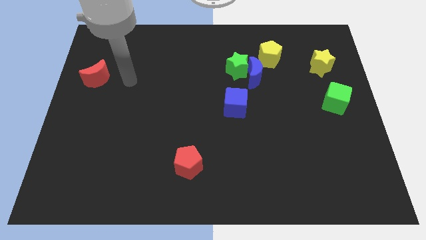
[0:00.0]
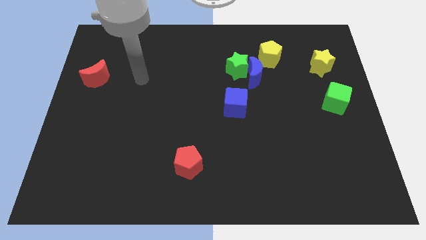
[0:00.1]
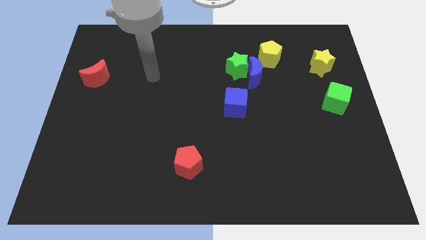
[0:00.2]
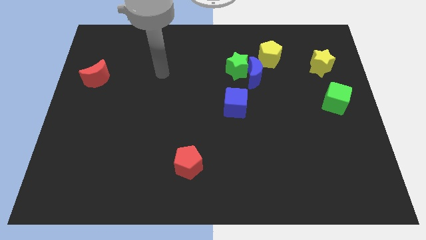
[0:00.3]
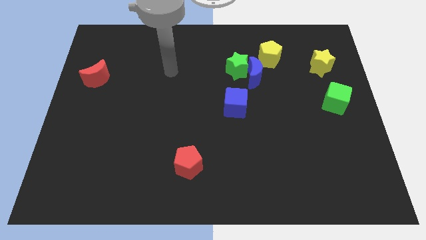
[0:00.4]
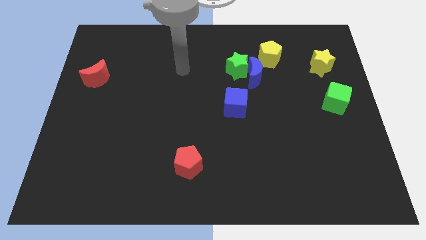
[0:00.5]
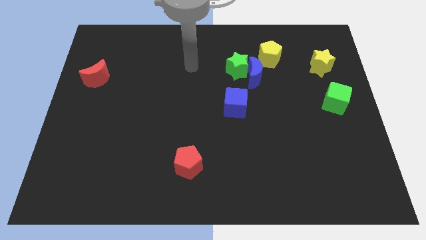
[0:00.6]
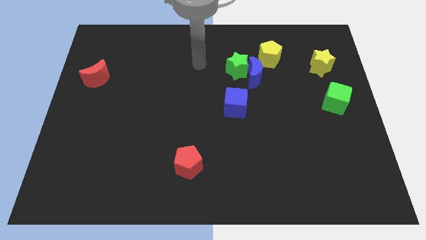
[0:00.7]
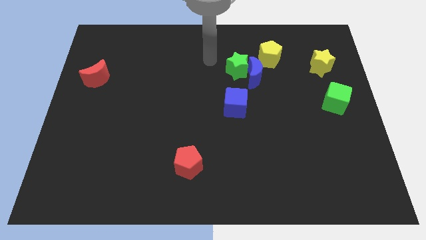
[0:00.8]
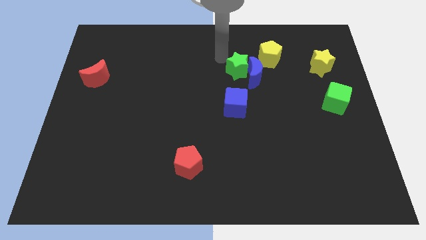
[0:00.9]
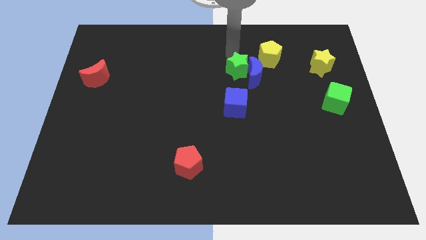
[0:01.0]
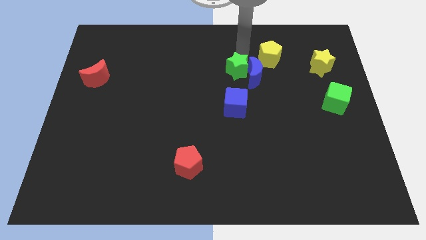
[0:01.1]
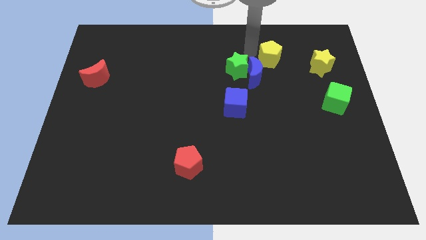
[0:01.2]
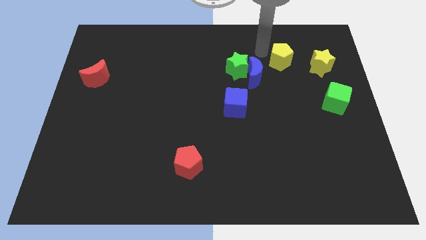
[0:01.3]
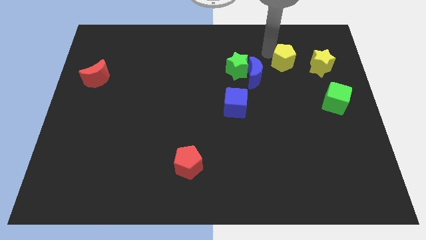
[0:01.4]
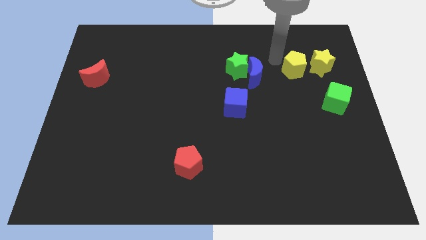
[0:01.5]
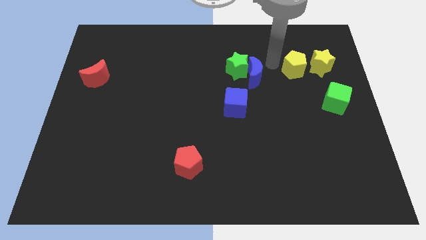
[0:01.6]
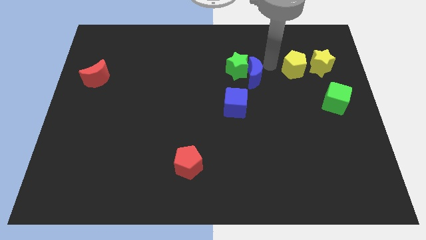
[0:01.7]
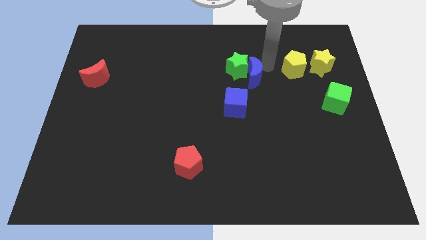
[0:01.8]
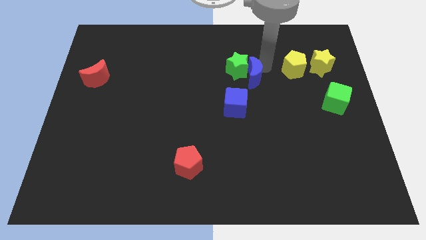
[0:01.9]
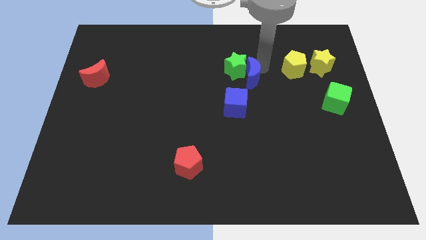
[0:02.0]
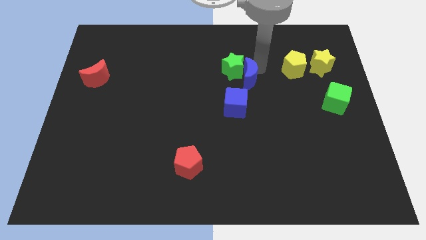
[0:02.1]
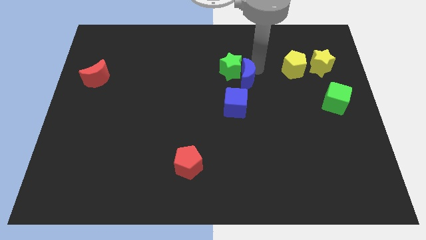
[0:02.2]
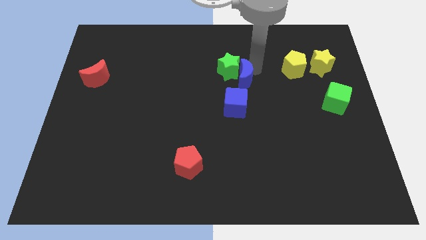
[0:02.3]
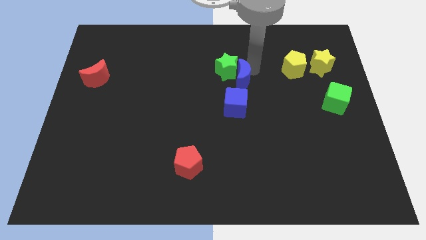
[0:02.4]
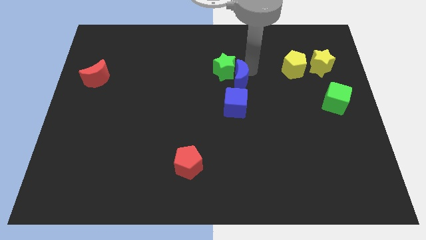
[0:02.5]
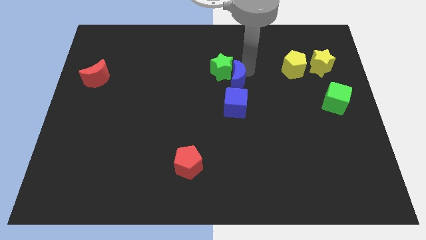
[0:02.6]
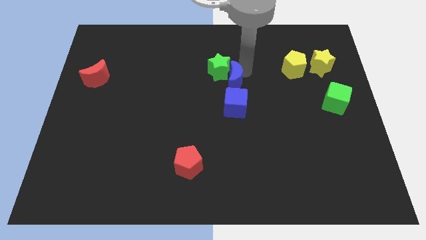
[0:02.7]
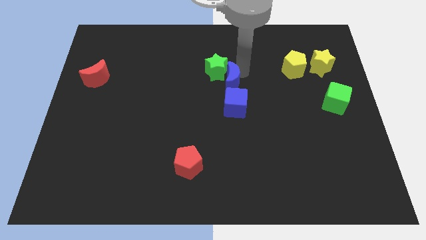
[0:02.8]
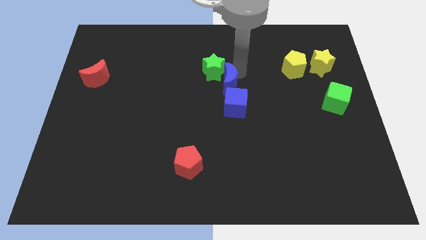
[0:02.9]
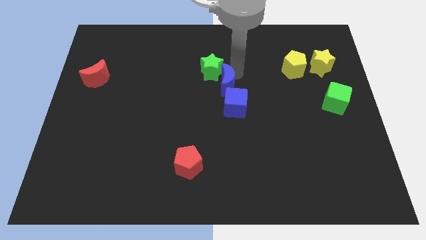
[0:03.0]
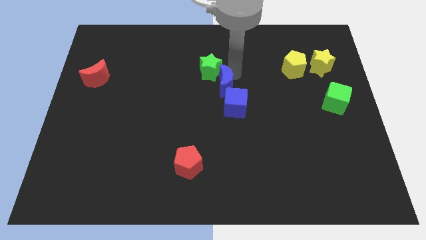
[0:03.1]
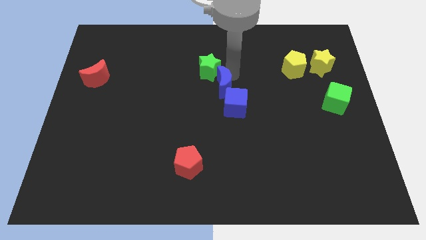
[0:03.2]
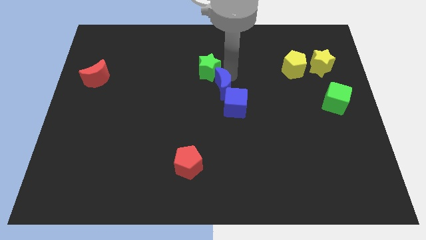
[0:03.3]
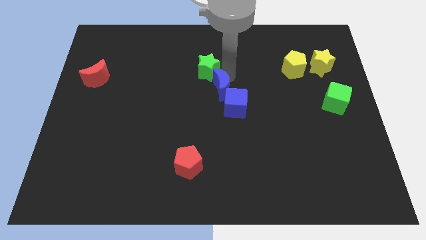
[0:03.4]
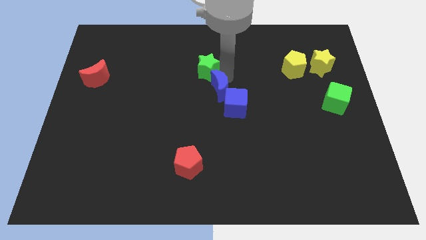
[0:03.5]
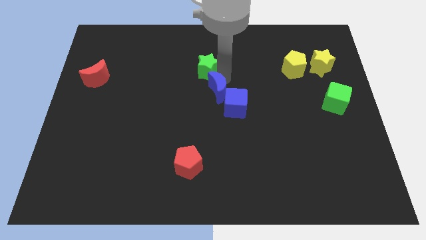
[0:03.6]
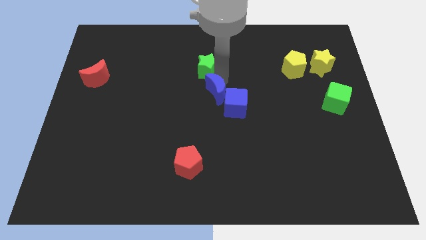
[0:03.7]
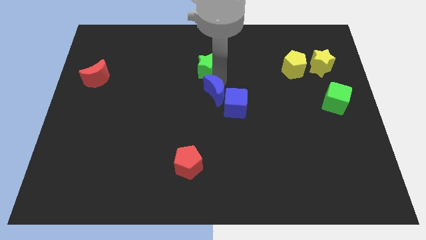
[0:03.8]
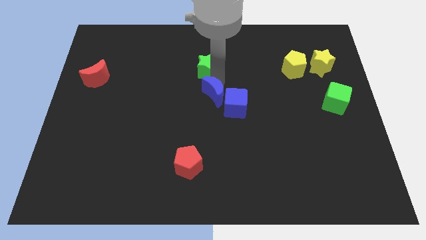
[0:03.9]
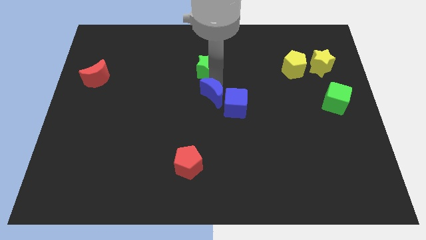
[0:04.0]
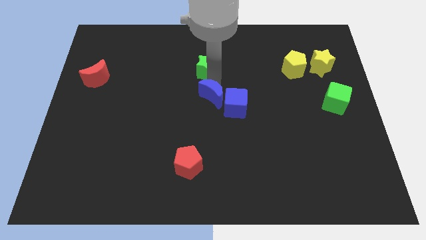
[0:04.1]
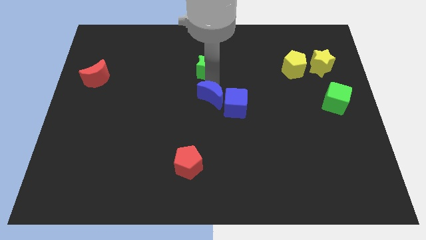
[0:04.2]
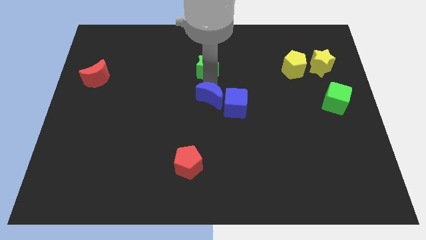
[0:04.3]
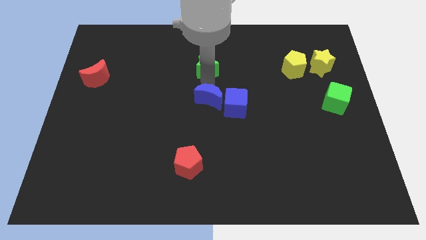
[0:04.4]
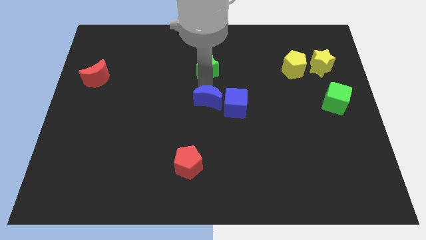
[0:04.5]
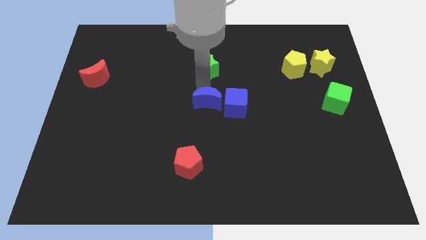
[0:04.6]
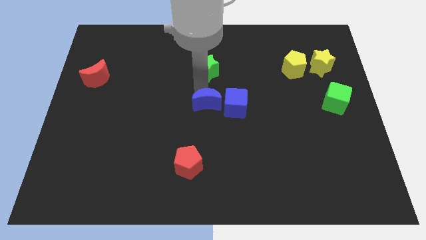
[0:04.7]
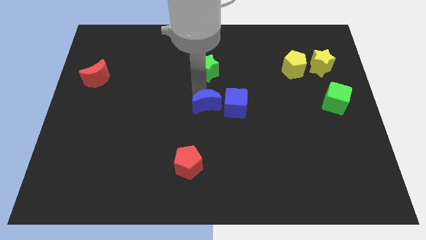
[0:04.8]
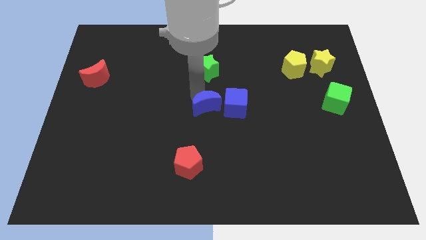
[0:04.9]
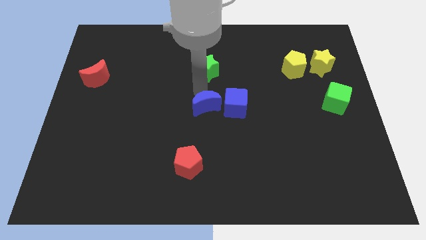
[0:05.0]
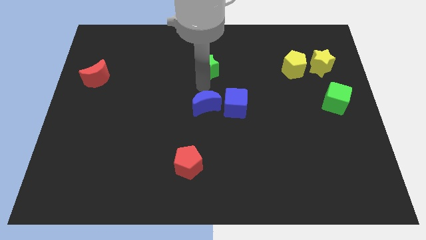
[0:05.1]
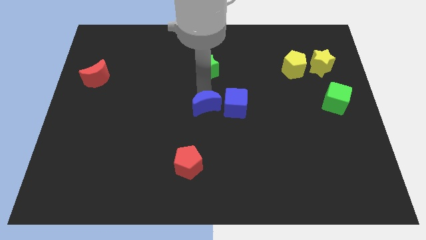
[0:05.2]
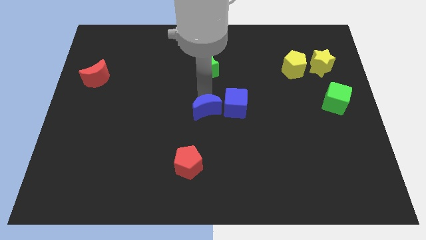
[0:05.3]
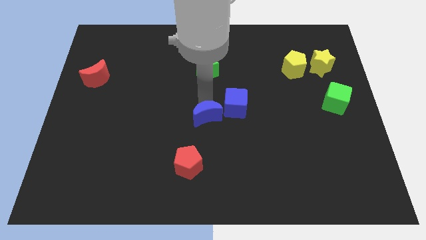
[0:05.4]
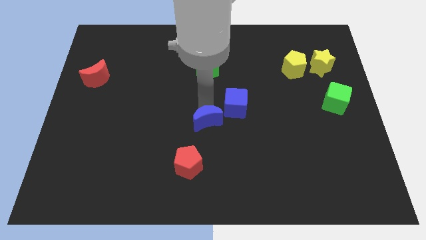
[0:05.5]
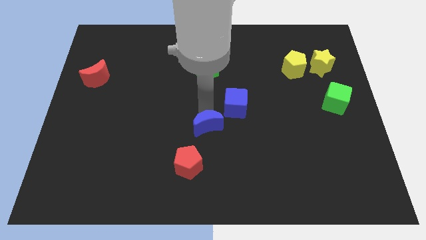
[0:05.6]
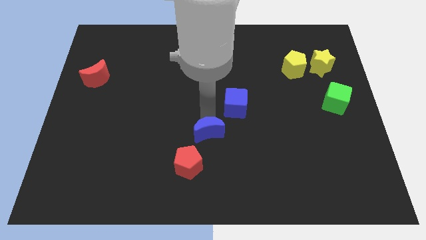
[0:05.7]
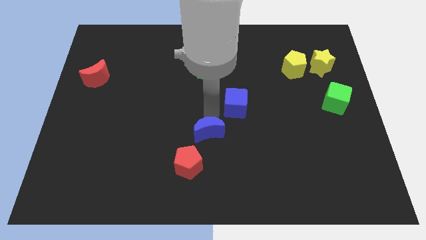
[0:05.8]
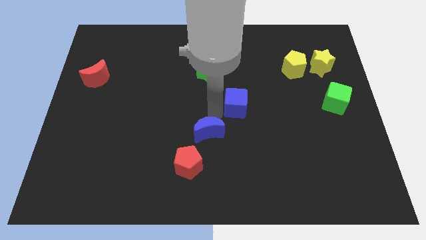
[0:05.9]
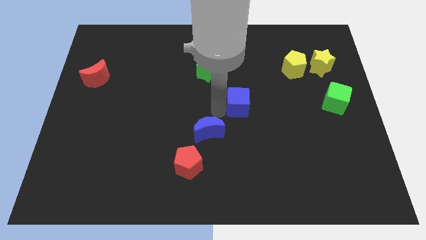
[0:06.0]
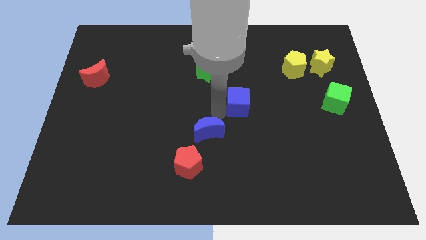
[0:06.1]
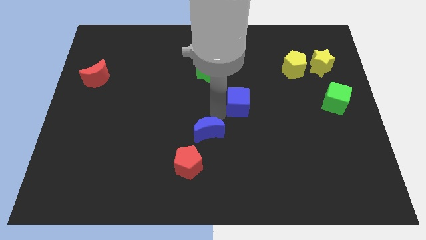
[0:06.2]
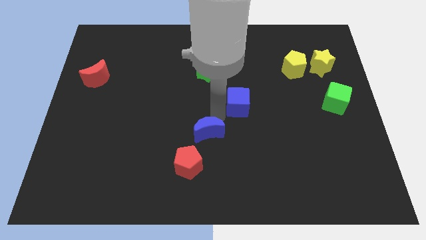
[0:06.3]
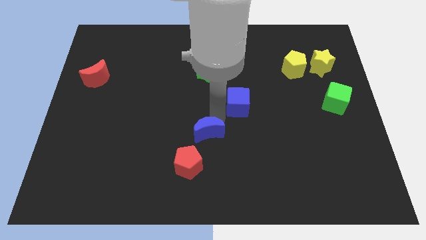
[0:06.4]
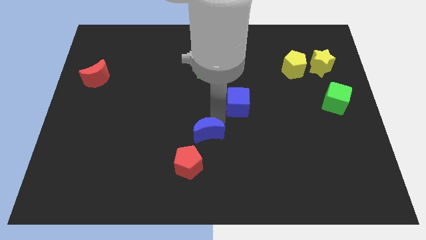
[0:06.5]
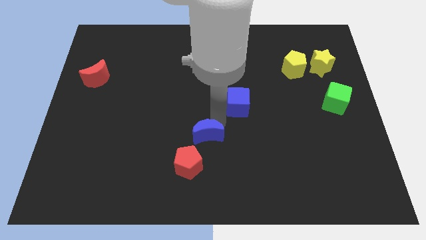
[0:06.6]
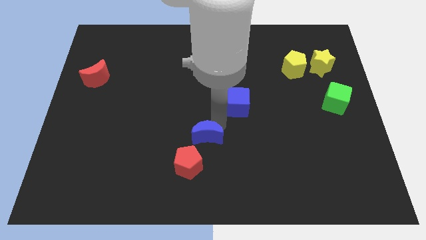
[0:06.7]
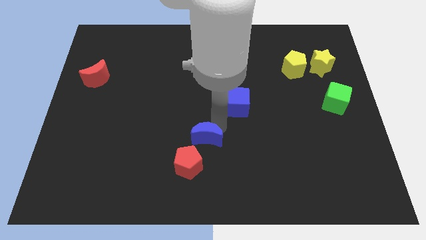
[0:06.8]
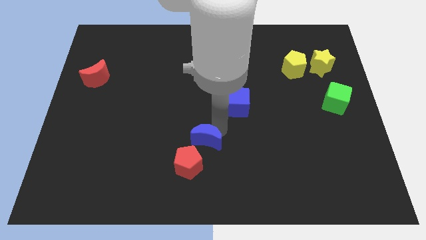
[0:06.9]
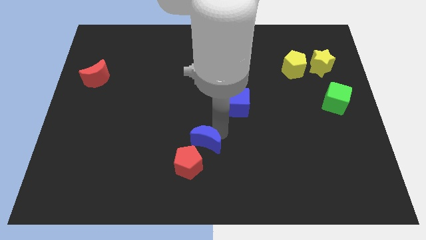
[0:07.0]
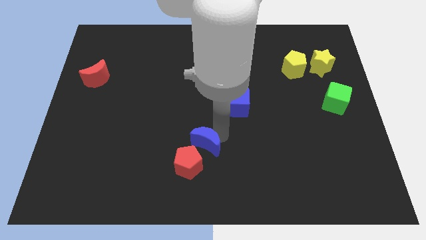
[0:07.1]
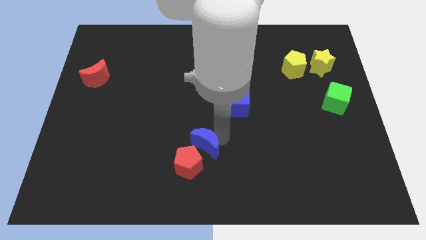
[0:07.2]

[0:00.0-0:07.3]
slide the blue moon to the red pentagon
